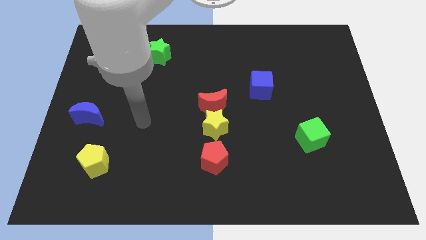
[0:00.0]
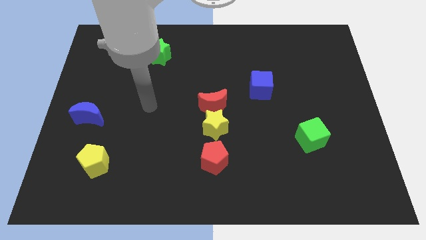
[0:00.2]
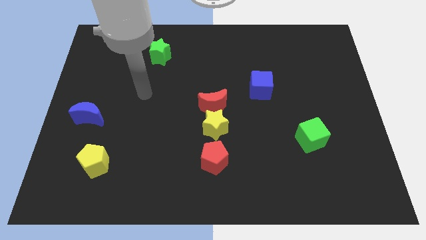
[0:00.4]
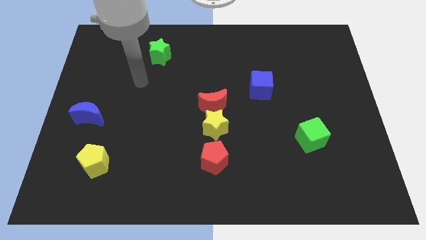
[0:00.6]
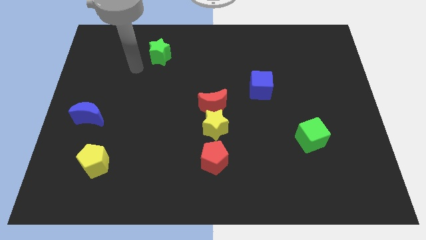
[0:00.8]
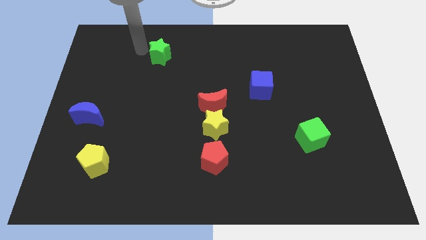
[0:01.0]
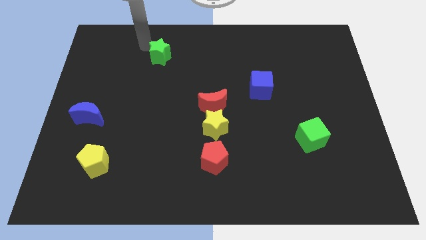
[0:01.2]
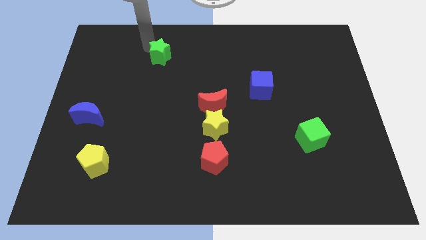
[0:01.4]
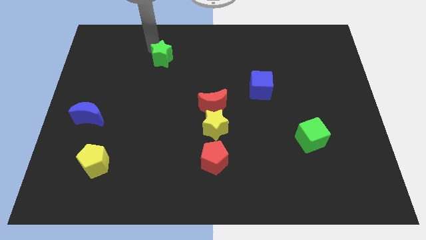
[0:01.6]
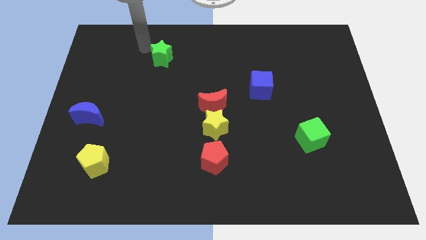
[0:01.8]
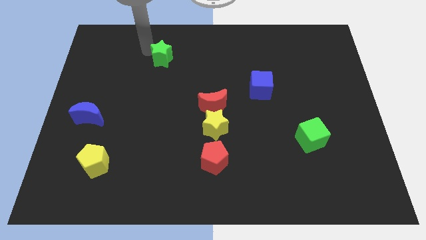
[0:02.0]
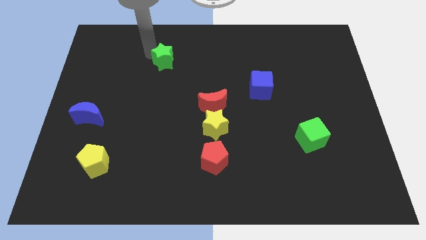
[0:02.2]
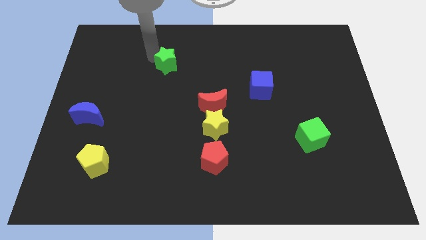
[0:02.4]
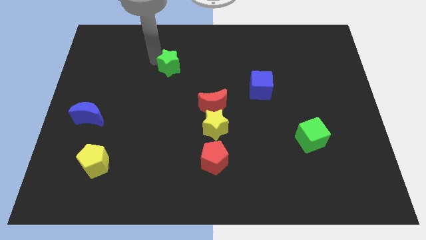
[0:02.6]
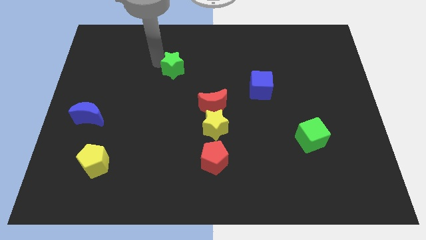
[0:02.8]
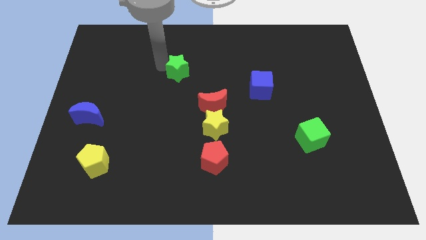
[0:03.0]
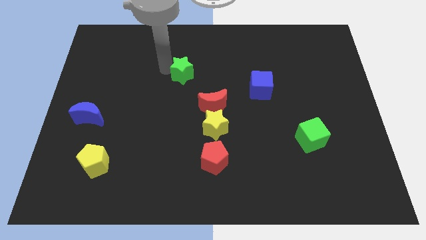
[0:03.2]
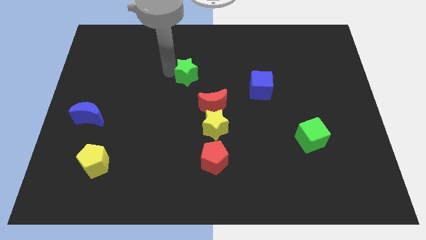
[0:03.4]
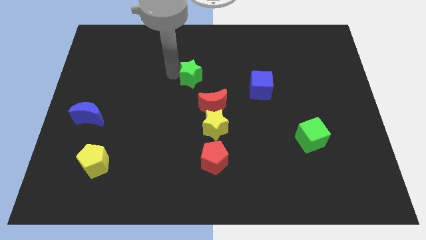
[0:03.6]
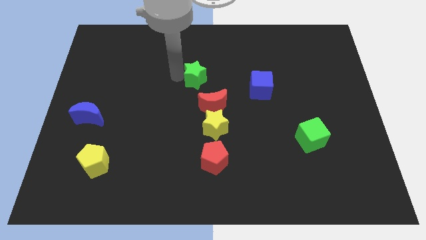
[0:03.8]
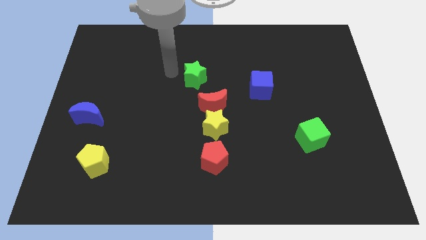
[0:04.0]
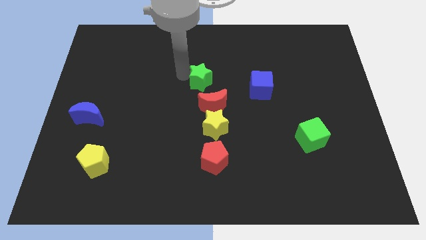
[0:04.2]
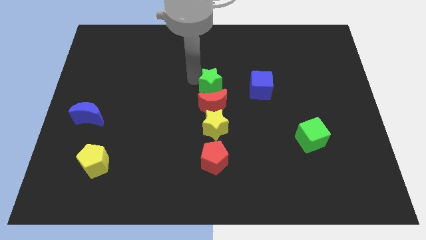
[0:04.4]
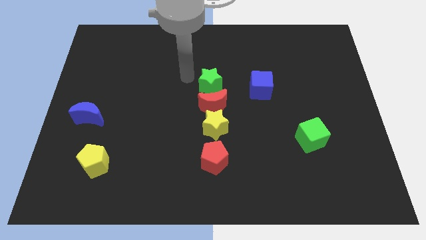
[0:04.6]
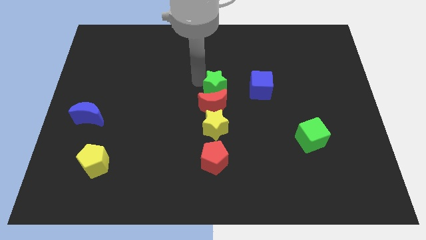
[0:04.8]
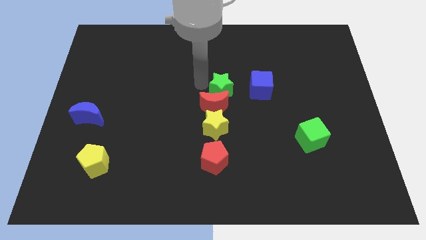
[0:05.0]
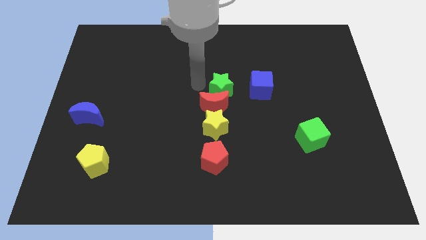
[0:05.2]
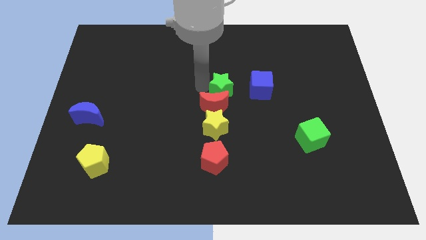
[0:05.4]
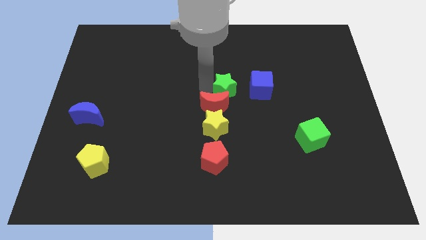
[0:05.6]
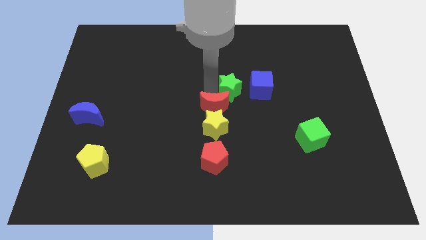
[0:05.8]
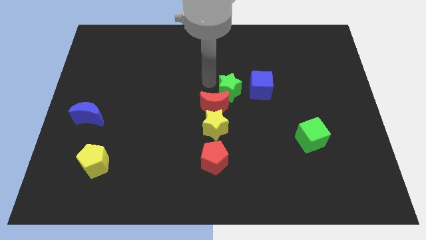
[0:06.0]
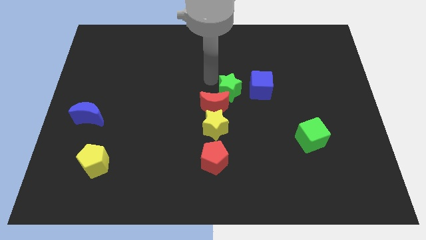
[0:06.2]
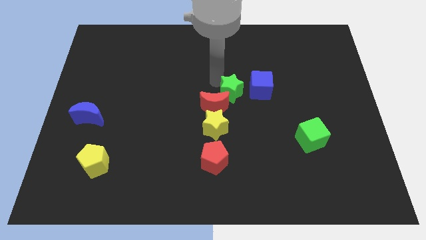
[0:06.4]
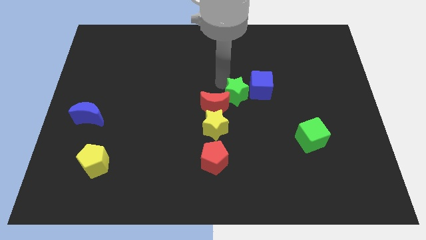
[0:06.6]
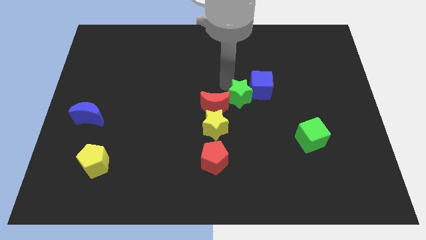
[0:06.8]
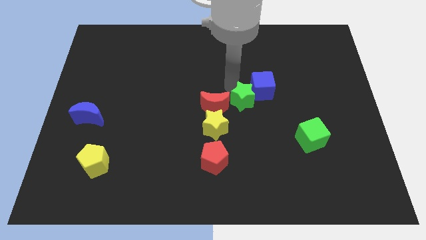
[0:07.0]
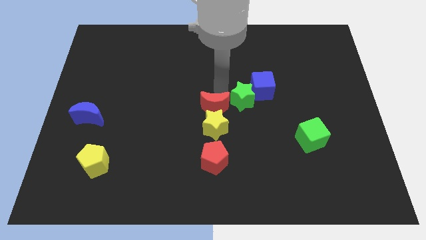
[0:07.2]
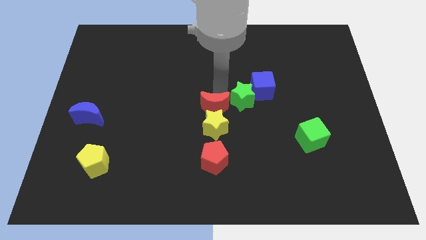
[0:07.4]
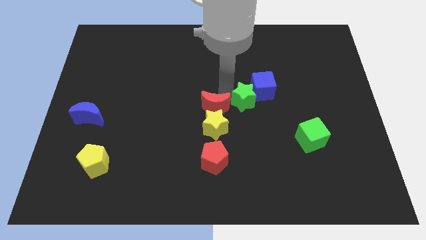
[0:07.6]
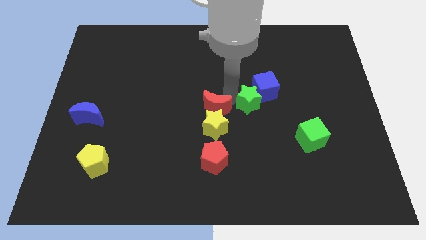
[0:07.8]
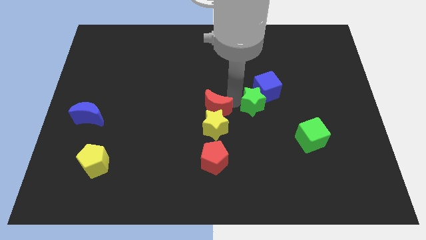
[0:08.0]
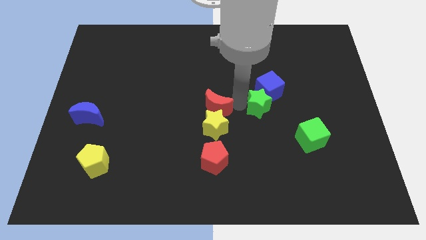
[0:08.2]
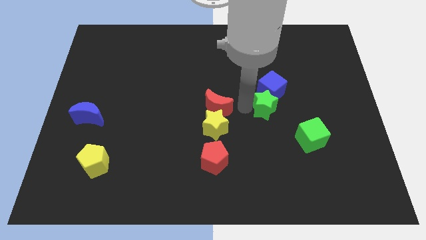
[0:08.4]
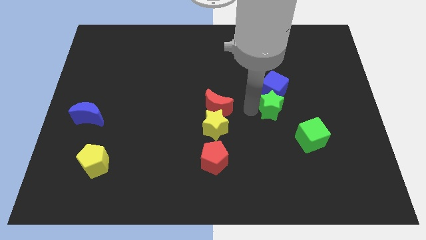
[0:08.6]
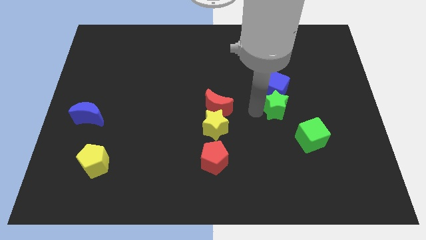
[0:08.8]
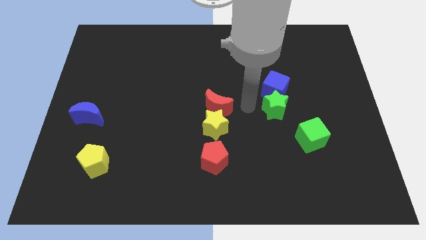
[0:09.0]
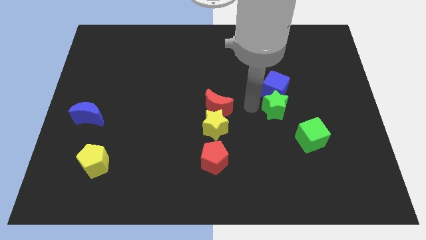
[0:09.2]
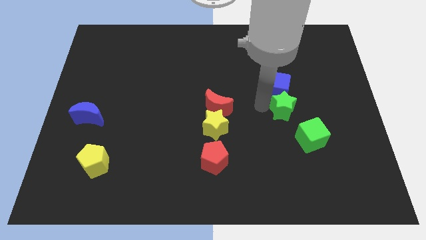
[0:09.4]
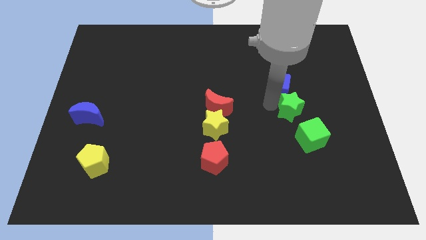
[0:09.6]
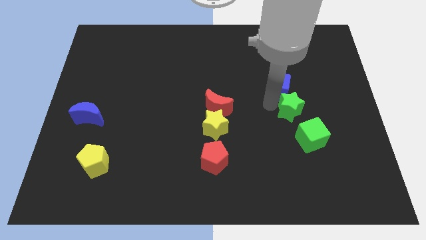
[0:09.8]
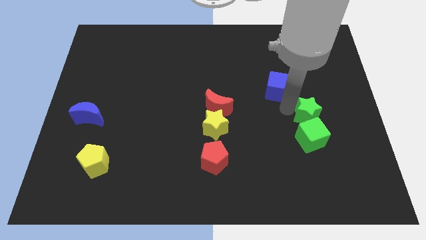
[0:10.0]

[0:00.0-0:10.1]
slide the green star to the top right side of the green cube

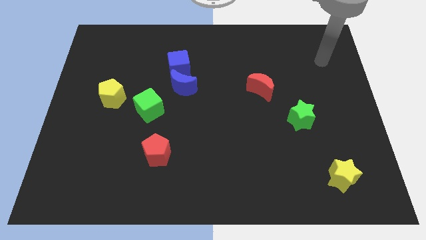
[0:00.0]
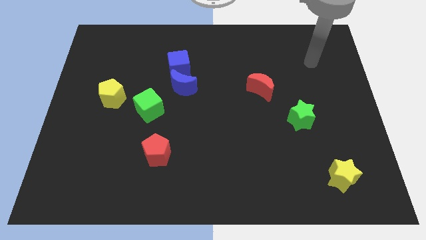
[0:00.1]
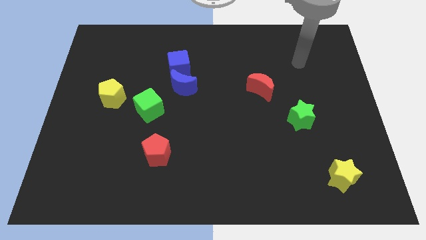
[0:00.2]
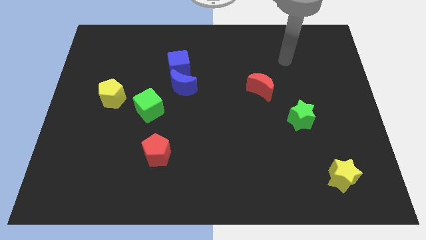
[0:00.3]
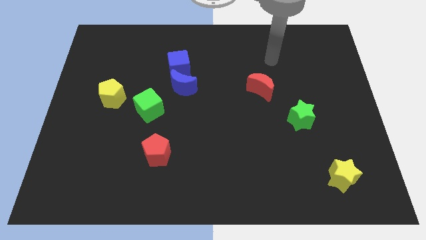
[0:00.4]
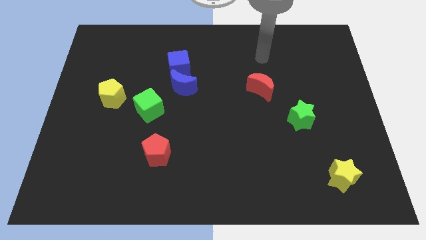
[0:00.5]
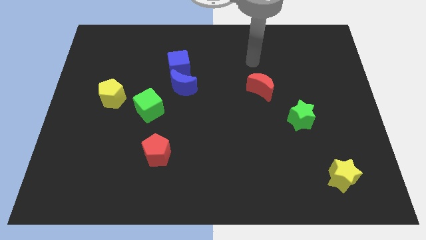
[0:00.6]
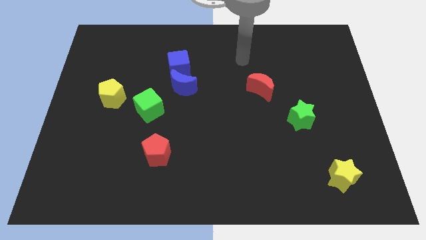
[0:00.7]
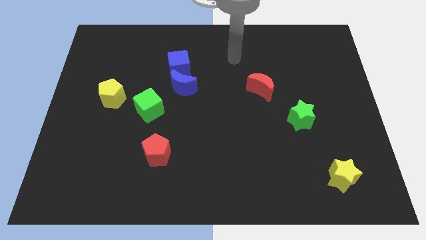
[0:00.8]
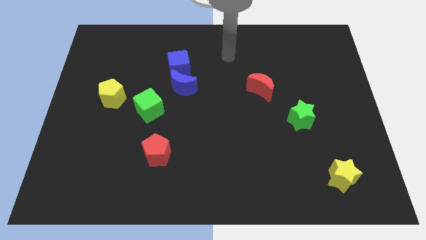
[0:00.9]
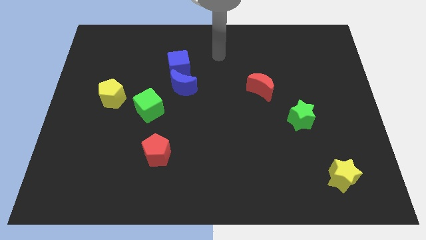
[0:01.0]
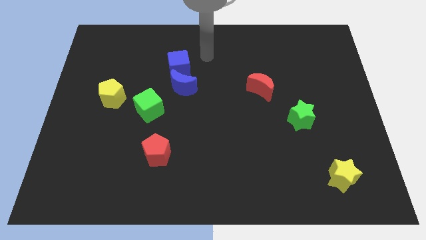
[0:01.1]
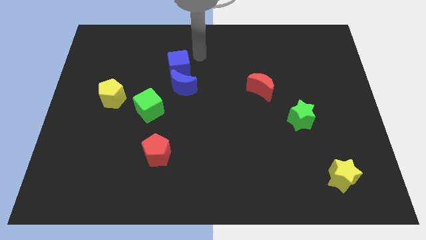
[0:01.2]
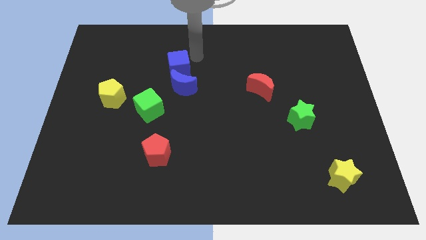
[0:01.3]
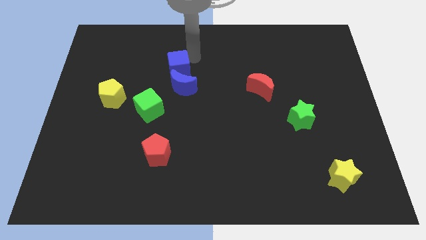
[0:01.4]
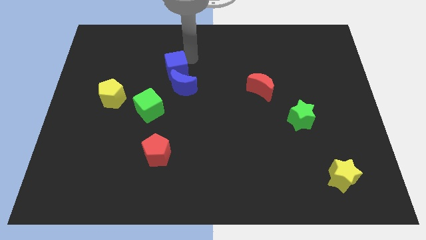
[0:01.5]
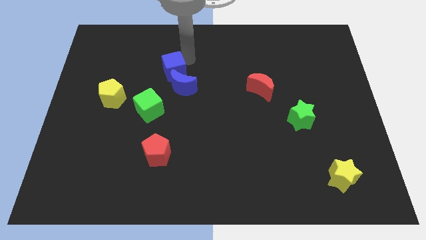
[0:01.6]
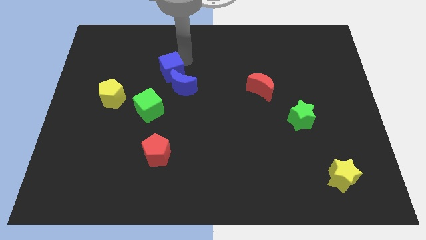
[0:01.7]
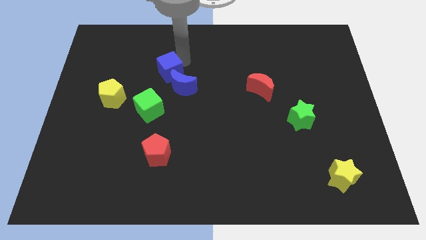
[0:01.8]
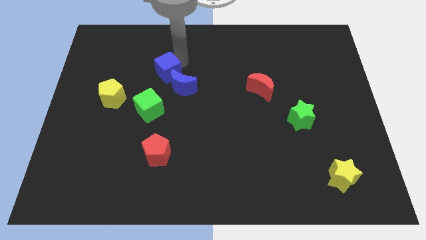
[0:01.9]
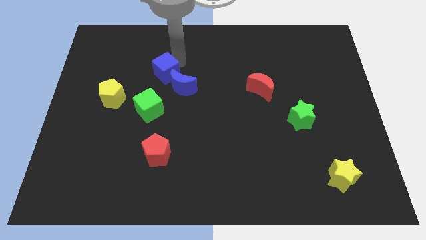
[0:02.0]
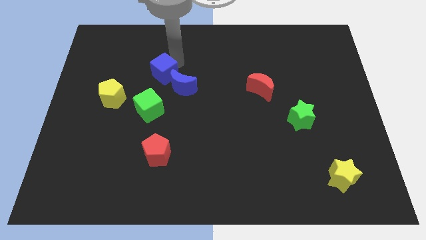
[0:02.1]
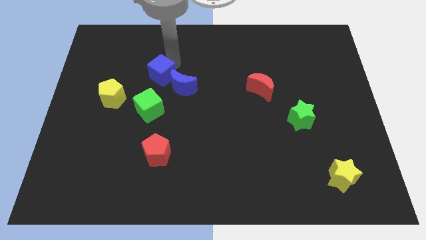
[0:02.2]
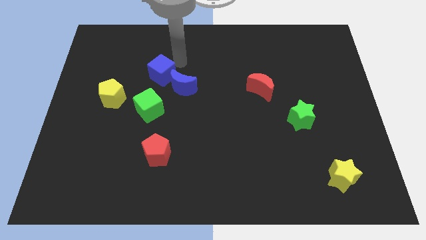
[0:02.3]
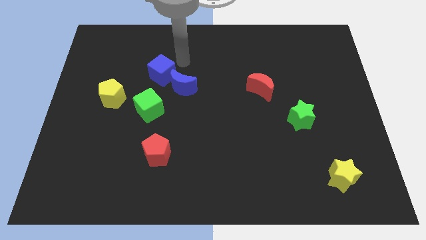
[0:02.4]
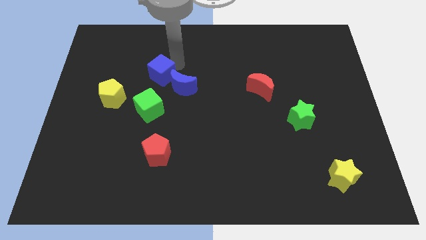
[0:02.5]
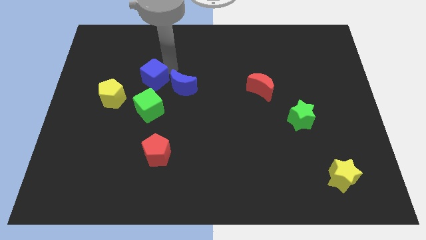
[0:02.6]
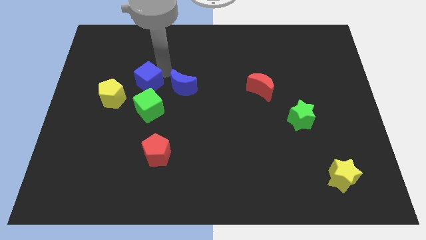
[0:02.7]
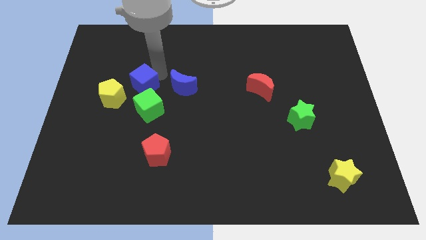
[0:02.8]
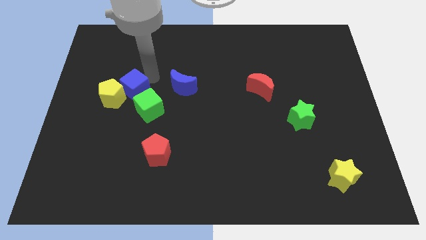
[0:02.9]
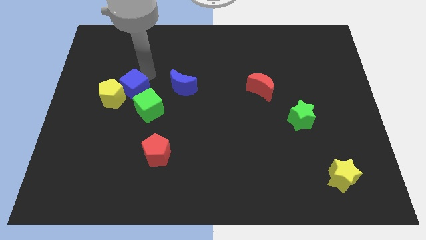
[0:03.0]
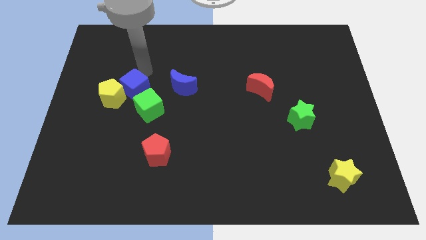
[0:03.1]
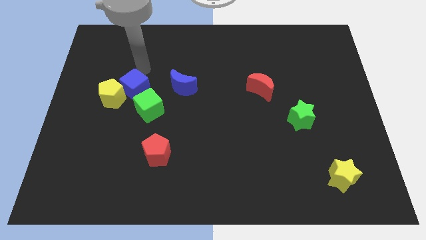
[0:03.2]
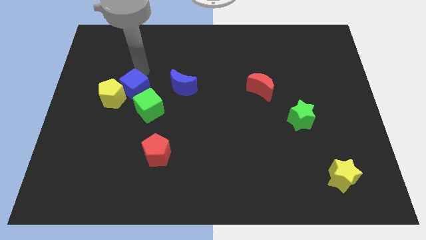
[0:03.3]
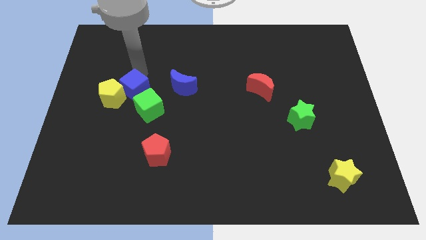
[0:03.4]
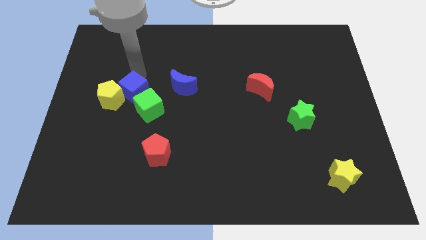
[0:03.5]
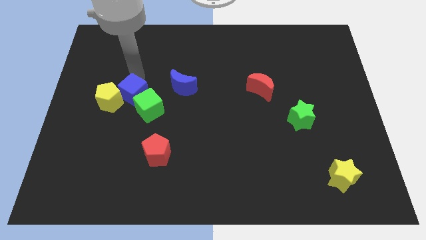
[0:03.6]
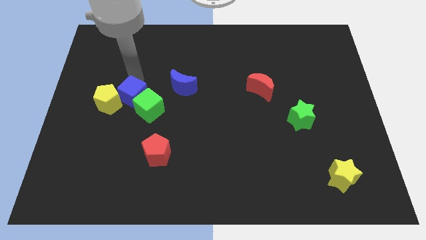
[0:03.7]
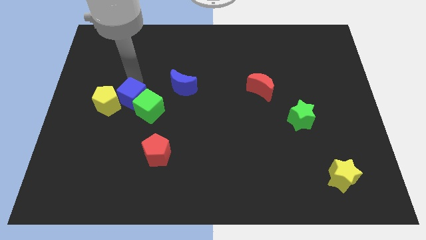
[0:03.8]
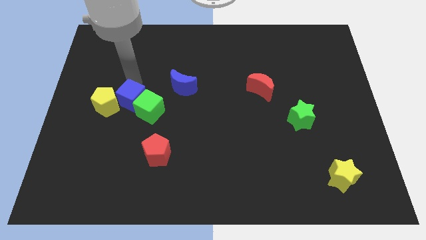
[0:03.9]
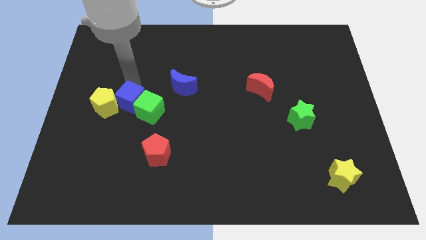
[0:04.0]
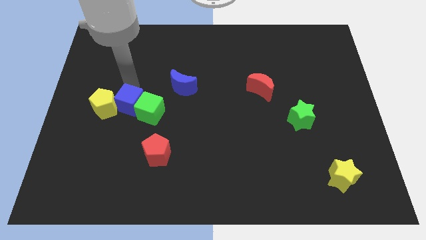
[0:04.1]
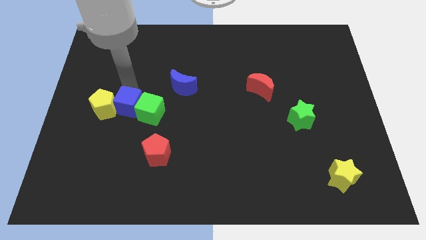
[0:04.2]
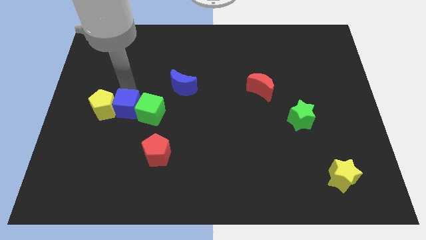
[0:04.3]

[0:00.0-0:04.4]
push the blue cube to the bottom left of the green cube
